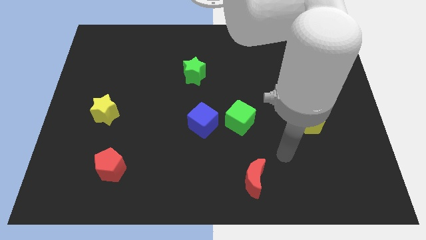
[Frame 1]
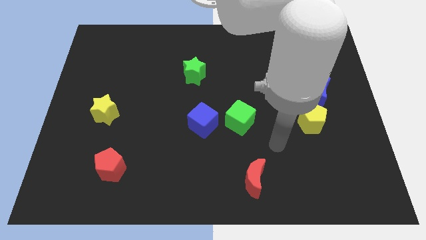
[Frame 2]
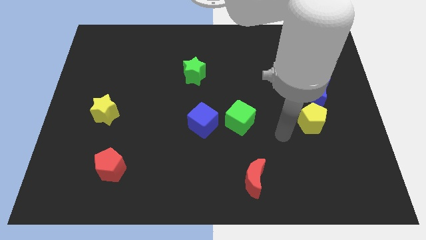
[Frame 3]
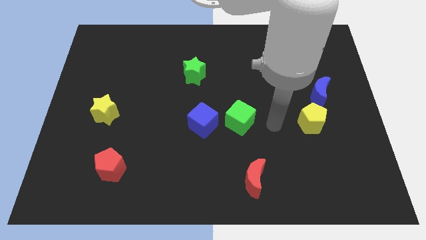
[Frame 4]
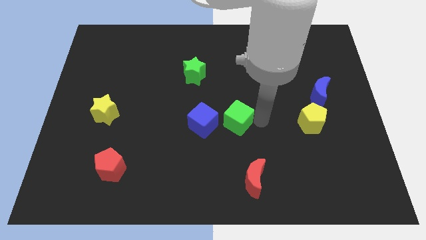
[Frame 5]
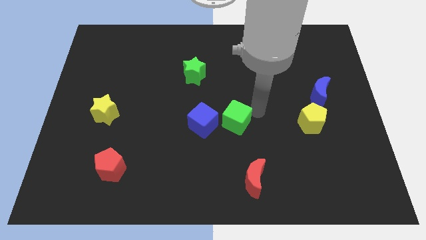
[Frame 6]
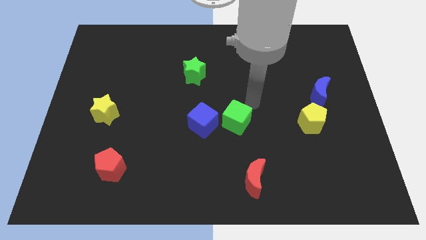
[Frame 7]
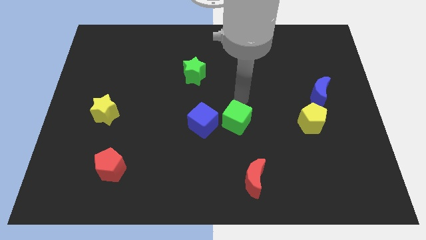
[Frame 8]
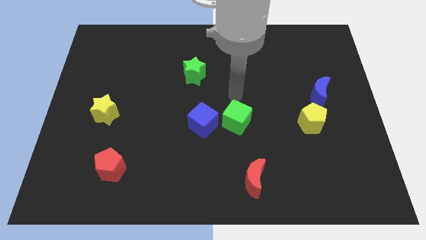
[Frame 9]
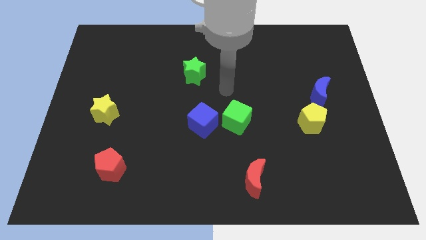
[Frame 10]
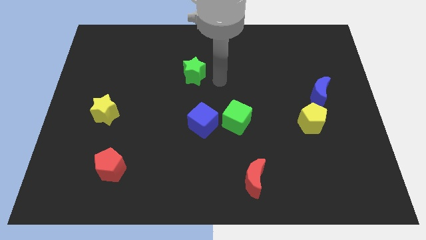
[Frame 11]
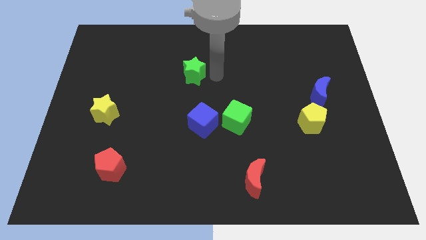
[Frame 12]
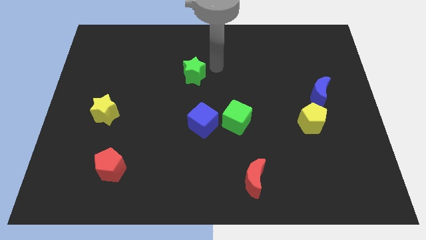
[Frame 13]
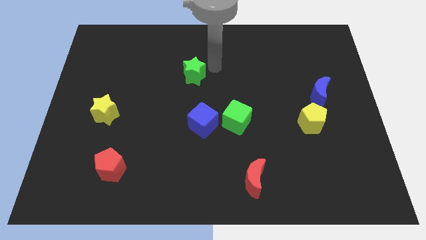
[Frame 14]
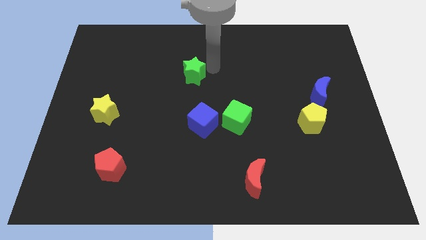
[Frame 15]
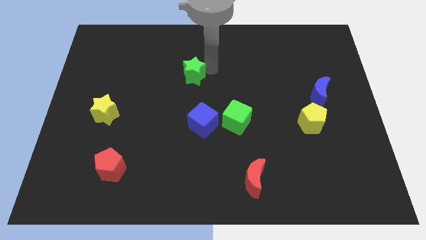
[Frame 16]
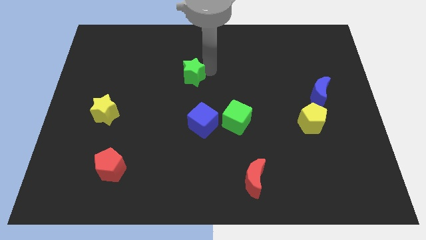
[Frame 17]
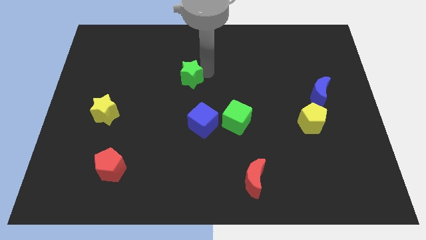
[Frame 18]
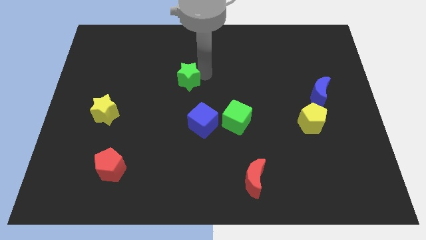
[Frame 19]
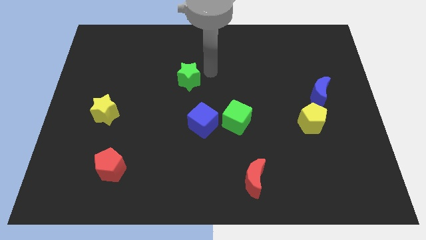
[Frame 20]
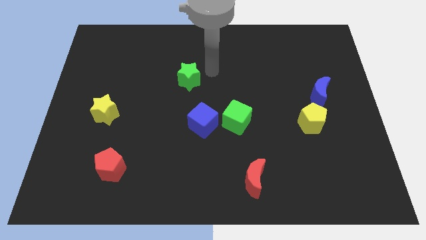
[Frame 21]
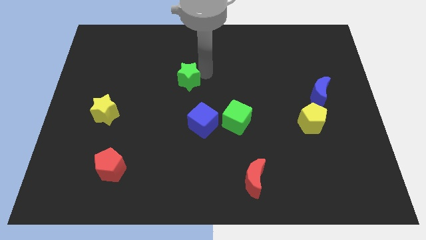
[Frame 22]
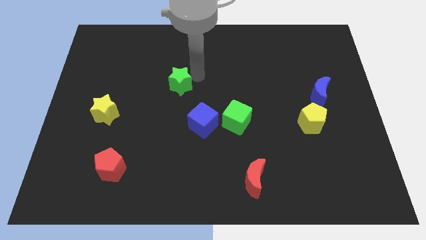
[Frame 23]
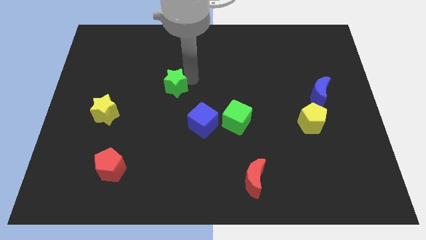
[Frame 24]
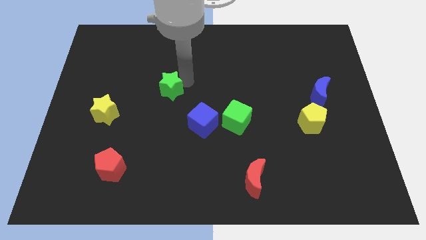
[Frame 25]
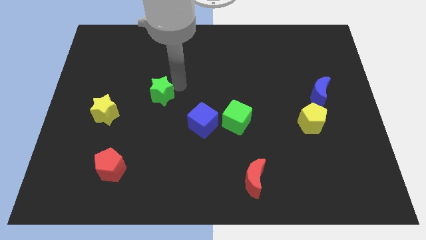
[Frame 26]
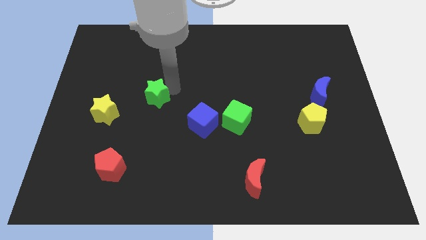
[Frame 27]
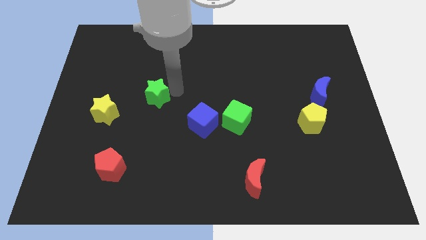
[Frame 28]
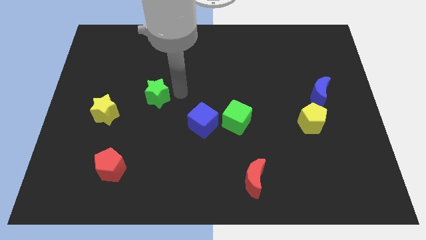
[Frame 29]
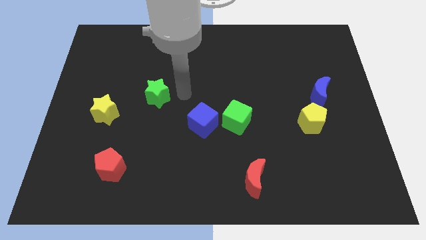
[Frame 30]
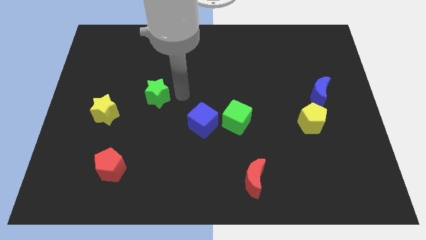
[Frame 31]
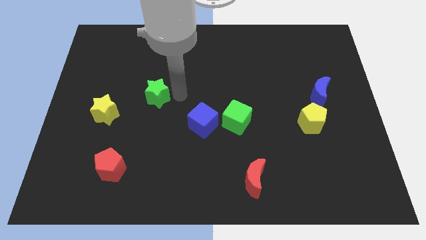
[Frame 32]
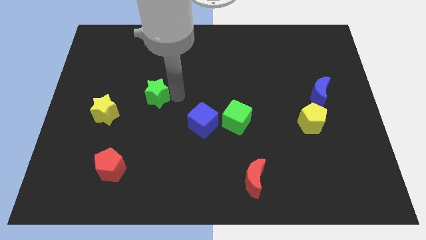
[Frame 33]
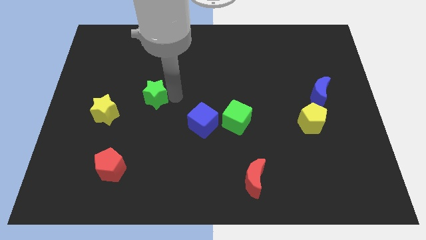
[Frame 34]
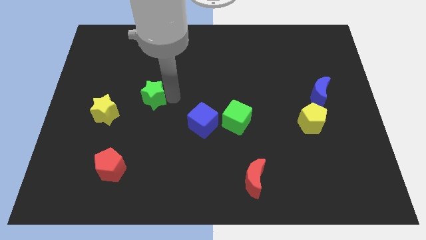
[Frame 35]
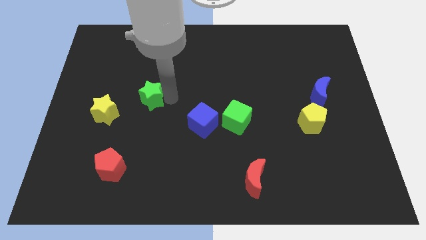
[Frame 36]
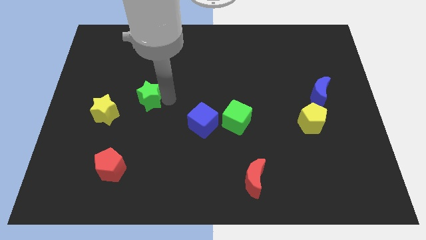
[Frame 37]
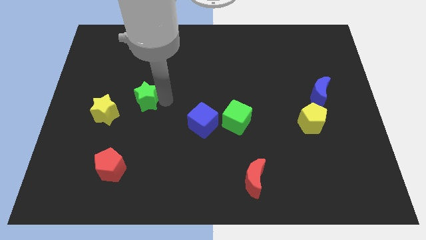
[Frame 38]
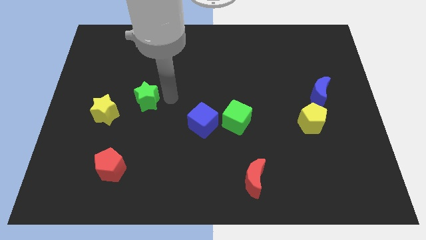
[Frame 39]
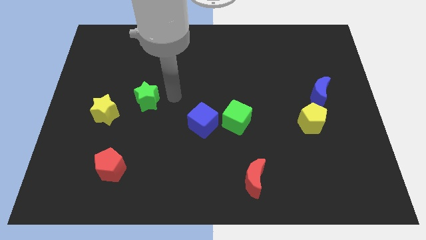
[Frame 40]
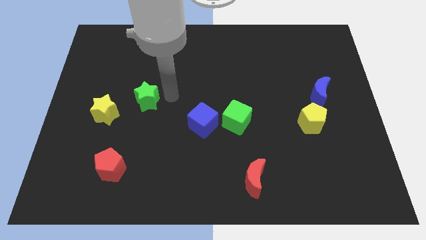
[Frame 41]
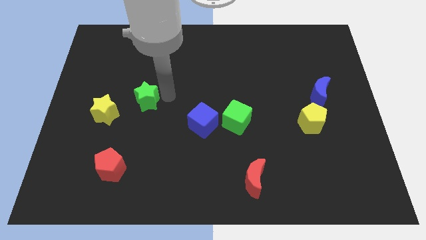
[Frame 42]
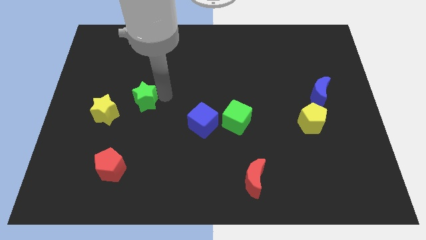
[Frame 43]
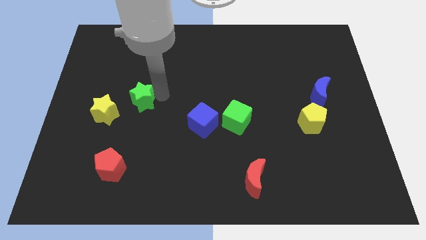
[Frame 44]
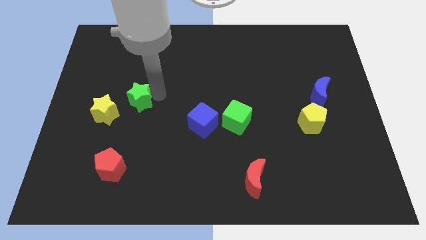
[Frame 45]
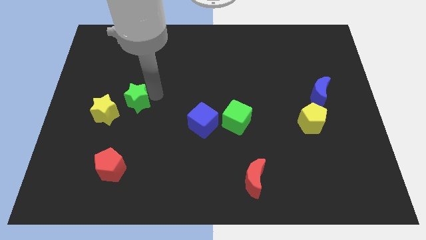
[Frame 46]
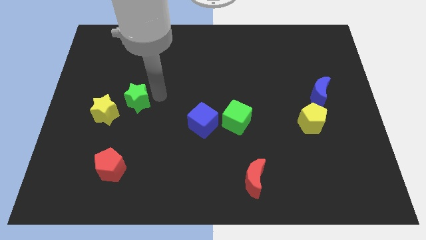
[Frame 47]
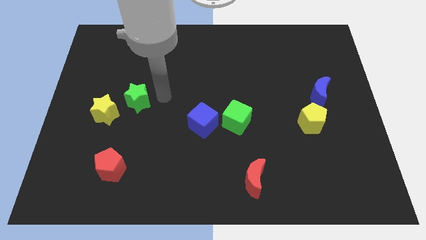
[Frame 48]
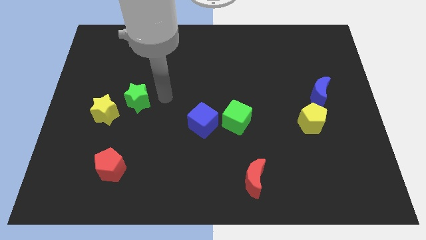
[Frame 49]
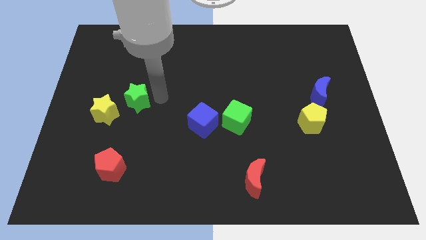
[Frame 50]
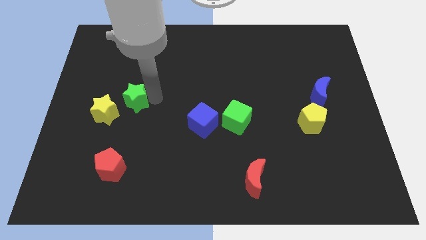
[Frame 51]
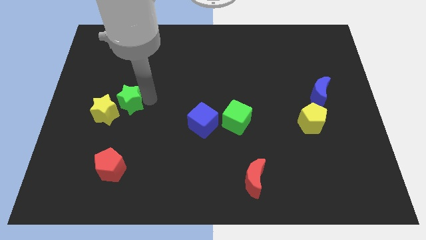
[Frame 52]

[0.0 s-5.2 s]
slide the green star to the yellow star

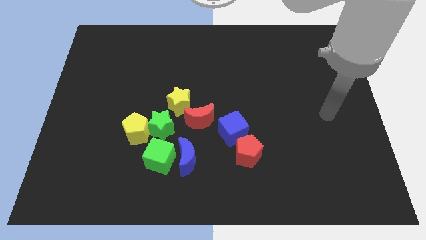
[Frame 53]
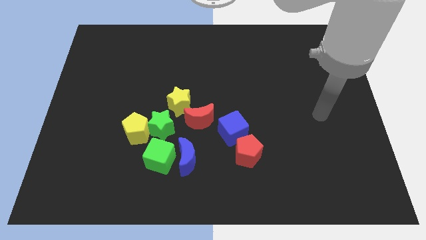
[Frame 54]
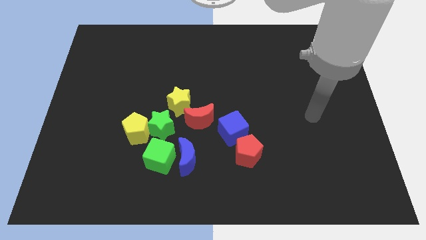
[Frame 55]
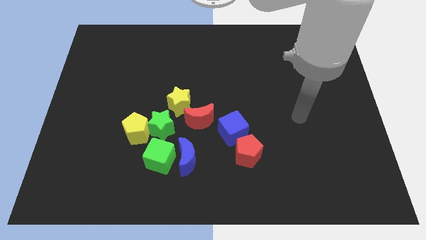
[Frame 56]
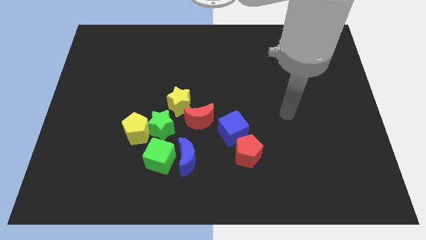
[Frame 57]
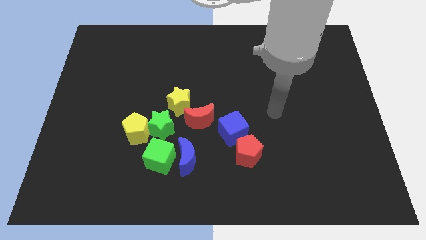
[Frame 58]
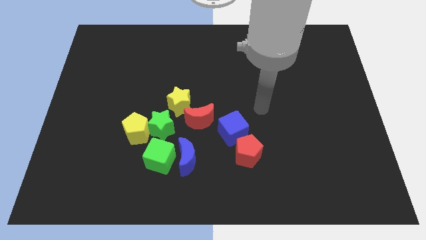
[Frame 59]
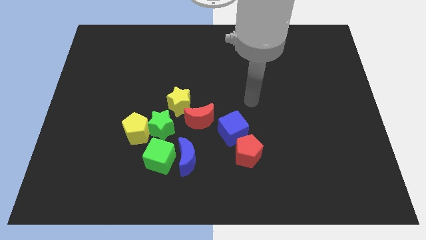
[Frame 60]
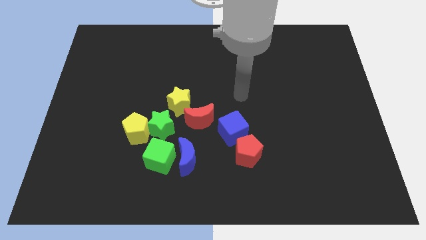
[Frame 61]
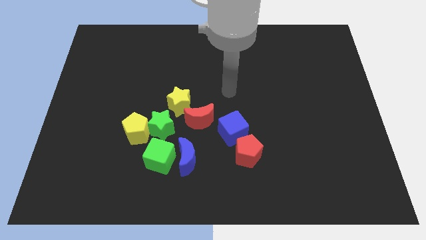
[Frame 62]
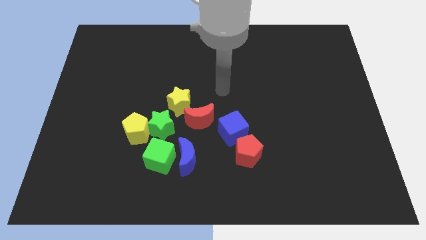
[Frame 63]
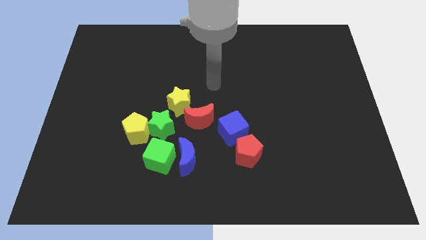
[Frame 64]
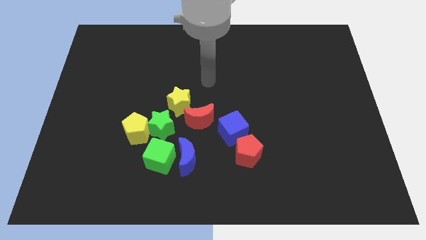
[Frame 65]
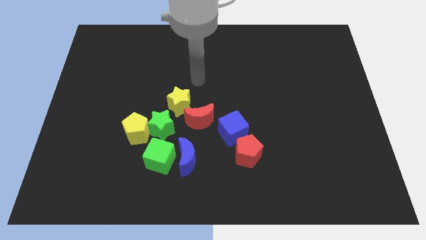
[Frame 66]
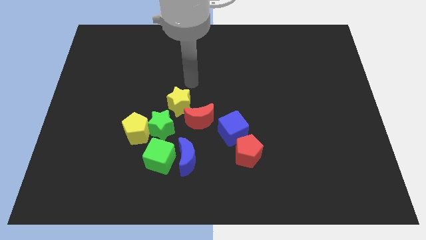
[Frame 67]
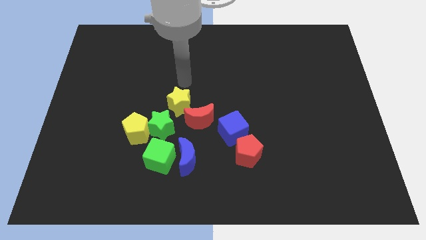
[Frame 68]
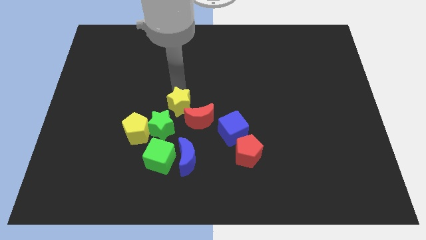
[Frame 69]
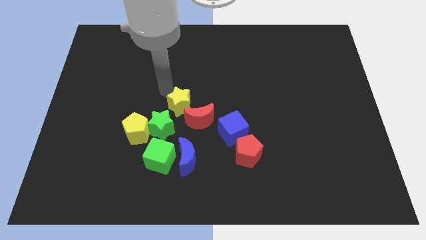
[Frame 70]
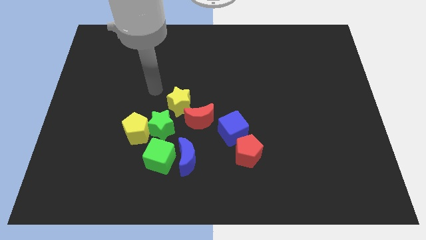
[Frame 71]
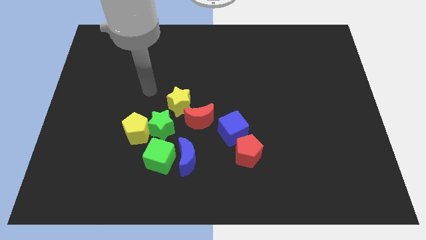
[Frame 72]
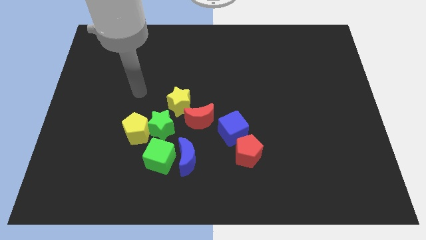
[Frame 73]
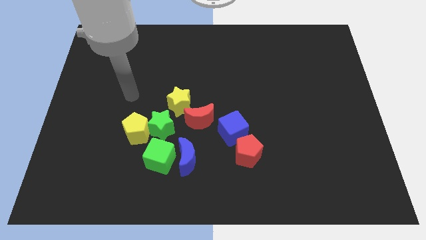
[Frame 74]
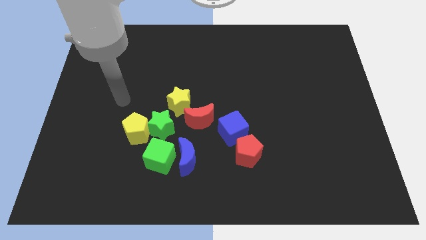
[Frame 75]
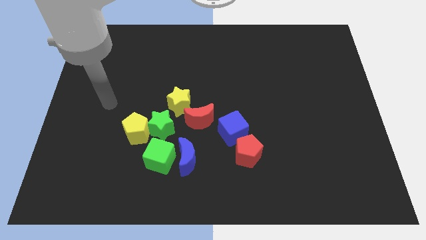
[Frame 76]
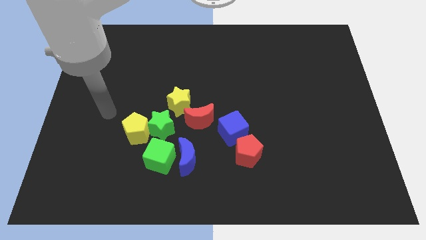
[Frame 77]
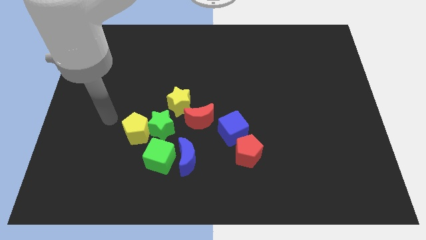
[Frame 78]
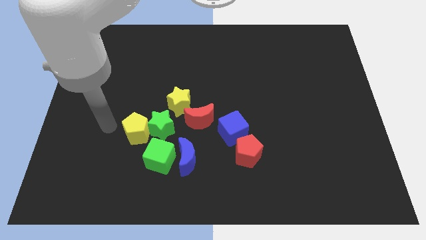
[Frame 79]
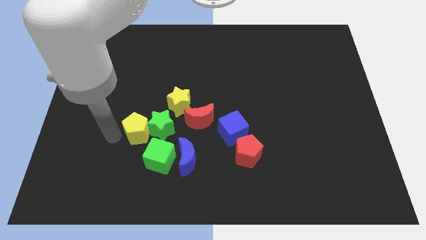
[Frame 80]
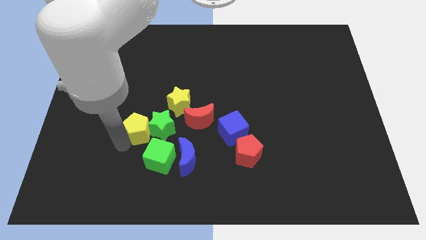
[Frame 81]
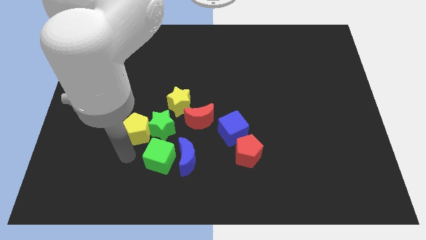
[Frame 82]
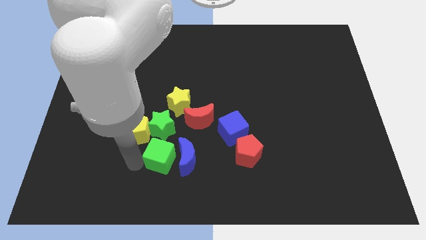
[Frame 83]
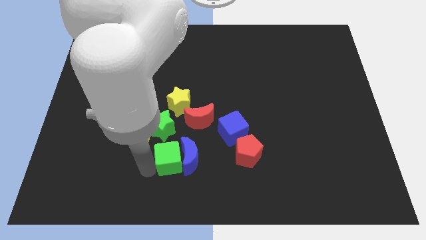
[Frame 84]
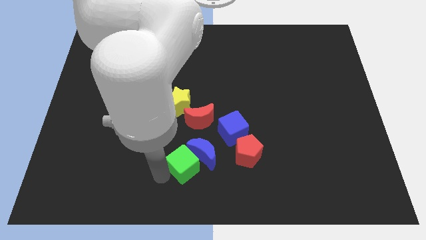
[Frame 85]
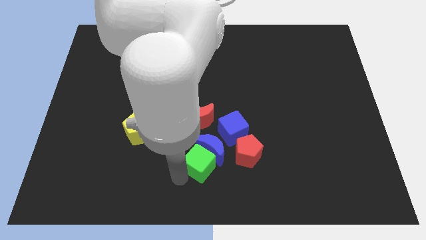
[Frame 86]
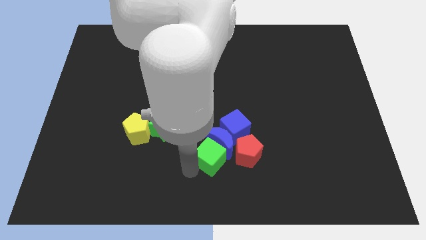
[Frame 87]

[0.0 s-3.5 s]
put the blue moon next to the blue cube
